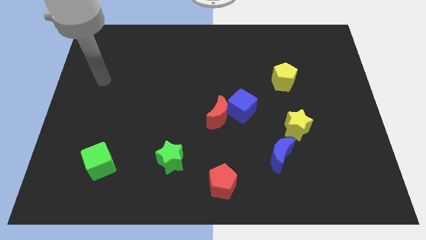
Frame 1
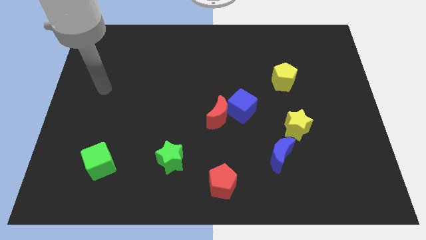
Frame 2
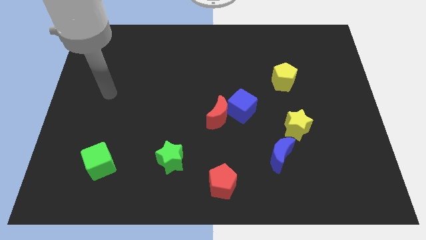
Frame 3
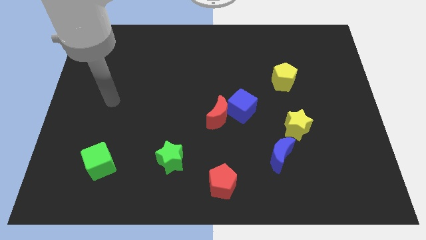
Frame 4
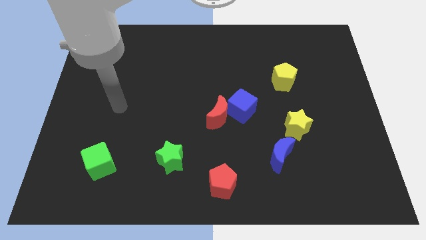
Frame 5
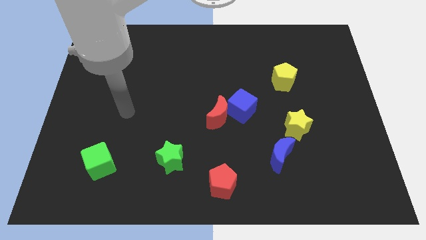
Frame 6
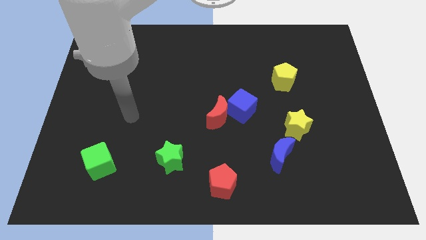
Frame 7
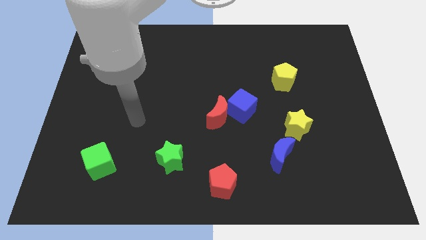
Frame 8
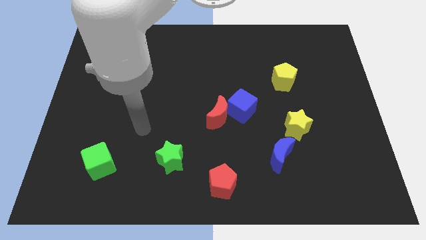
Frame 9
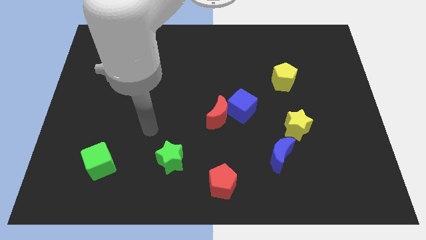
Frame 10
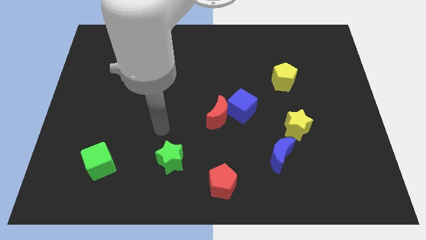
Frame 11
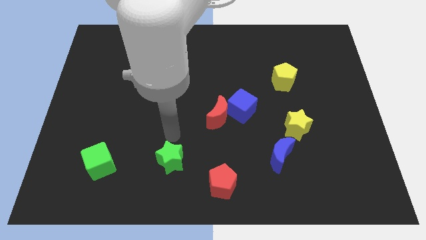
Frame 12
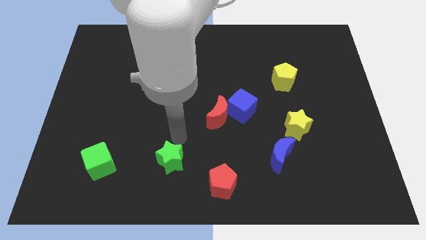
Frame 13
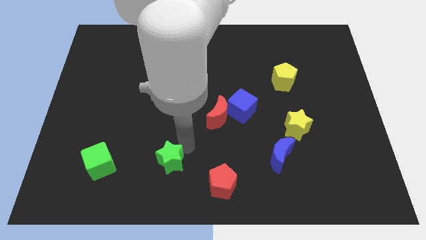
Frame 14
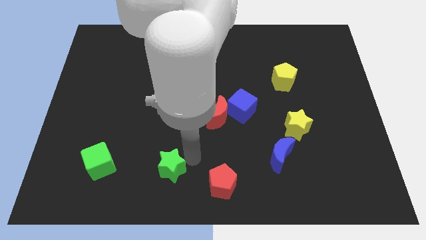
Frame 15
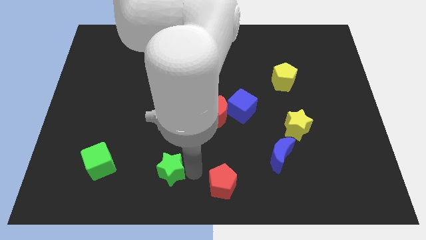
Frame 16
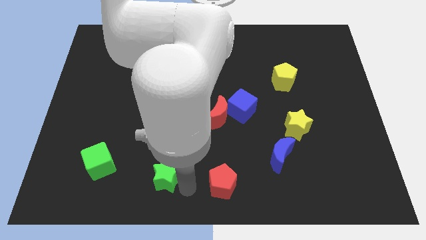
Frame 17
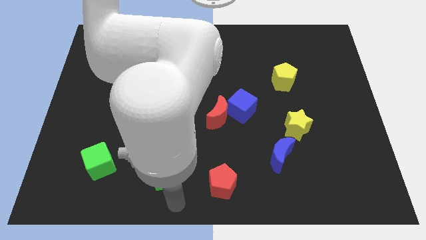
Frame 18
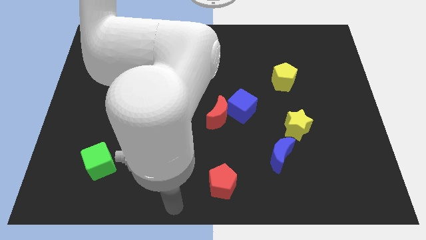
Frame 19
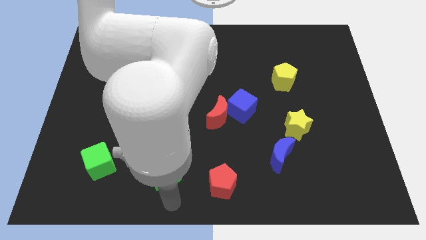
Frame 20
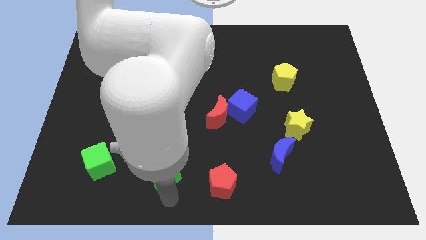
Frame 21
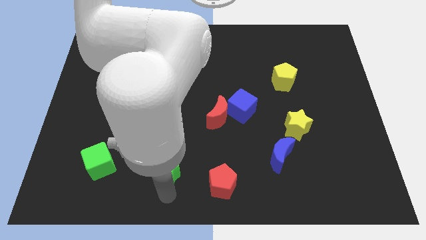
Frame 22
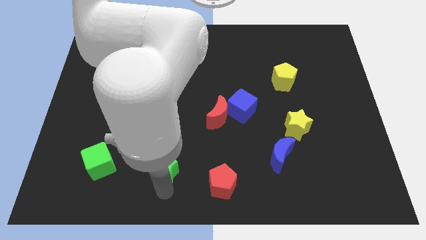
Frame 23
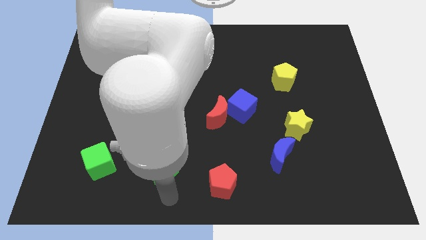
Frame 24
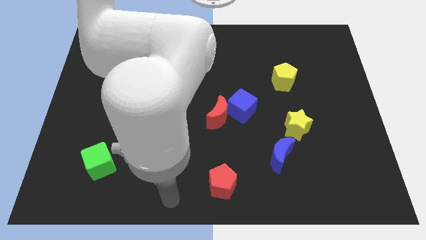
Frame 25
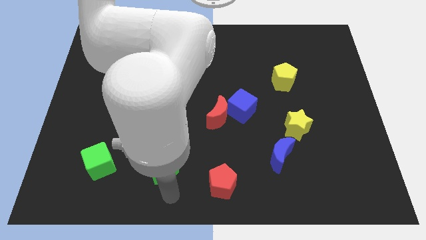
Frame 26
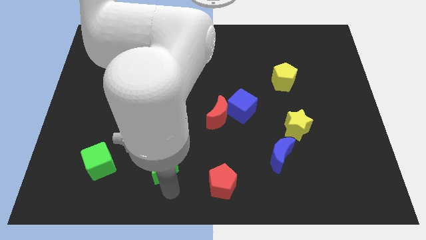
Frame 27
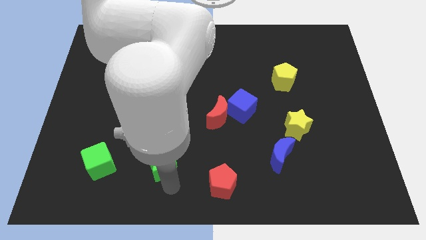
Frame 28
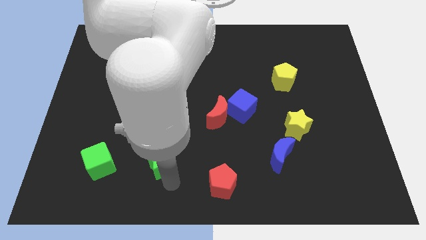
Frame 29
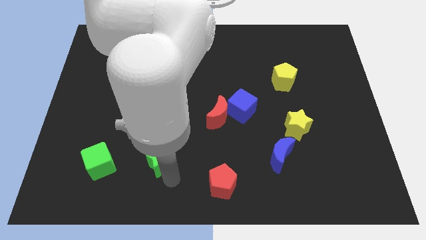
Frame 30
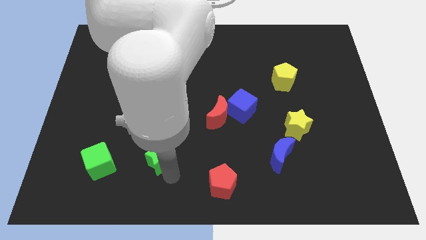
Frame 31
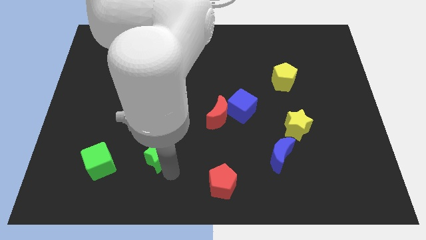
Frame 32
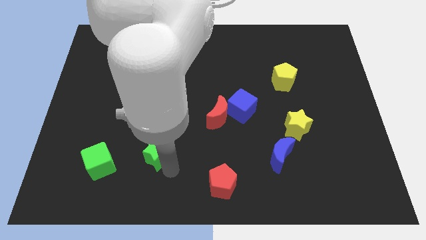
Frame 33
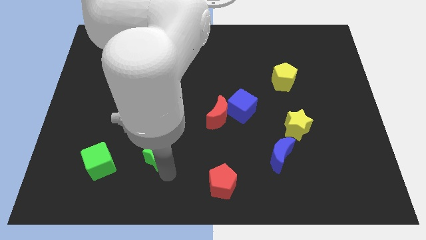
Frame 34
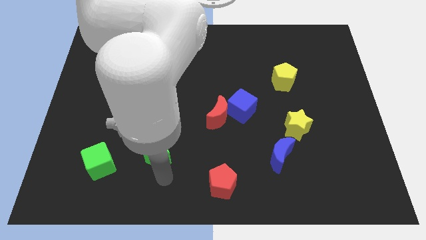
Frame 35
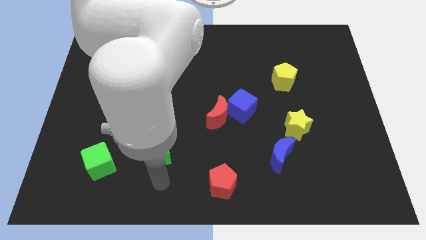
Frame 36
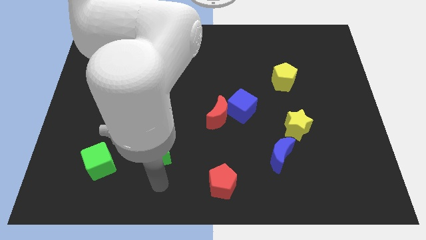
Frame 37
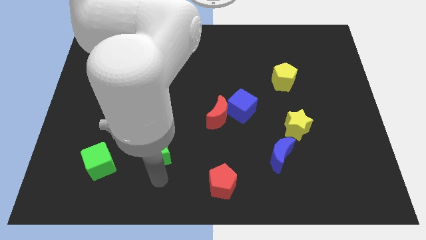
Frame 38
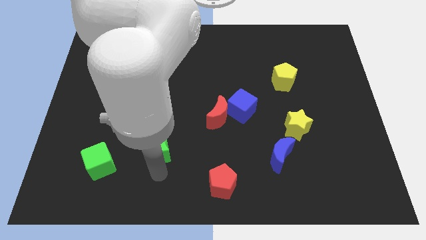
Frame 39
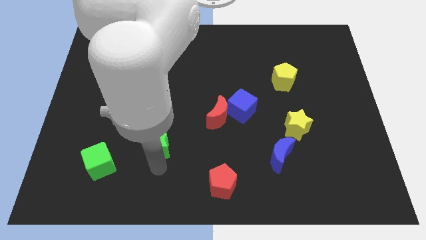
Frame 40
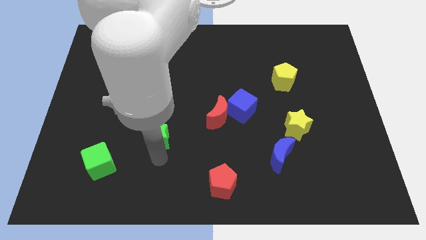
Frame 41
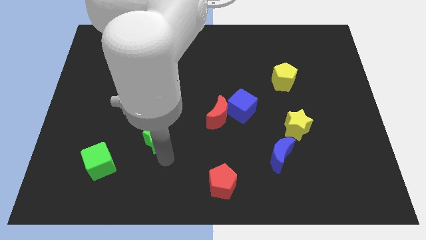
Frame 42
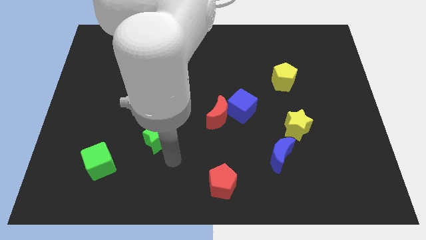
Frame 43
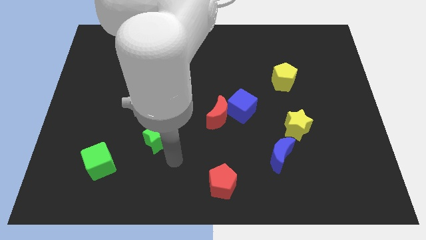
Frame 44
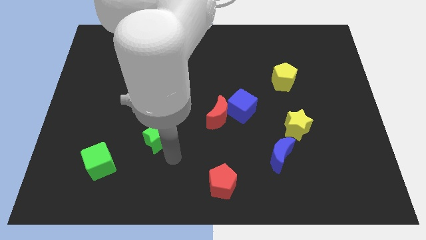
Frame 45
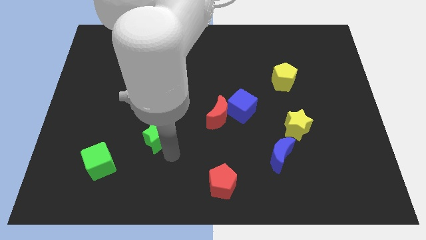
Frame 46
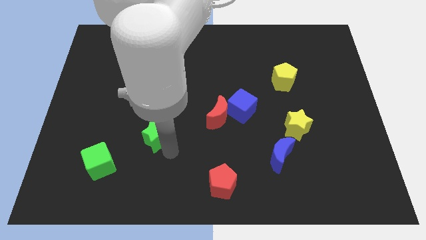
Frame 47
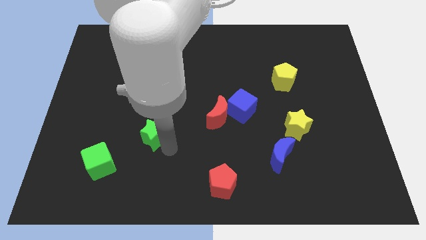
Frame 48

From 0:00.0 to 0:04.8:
move the green star somewhat up and to the left diagonally

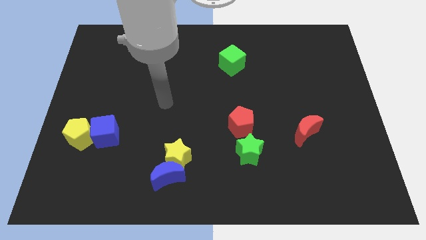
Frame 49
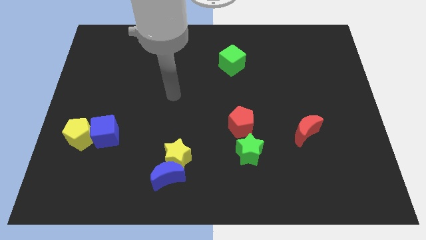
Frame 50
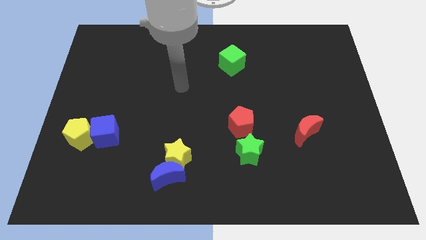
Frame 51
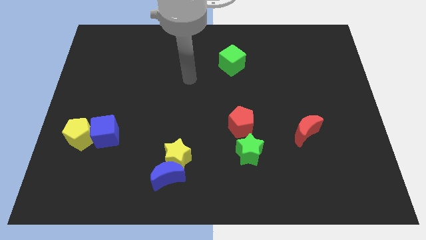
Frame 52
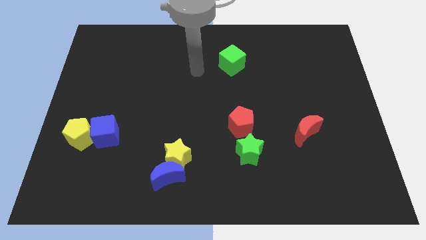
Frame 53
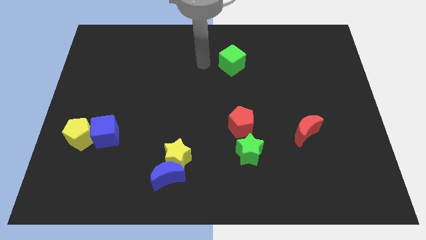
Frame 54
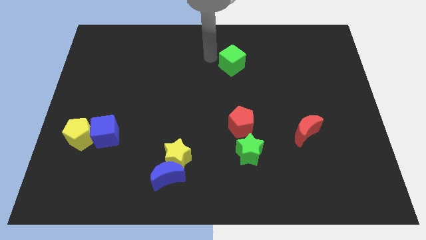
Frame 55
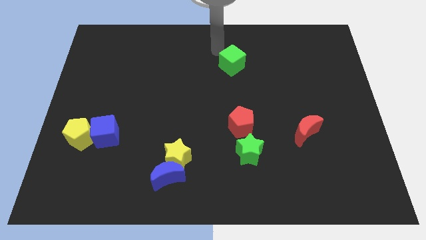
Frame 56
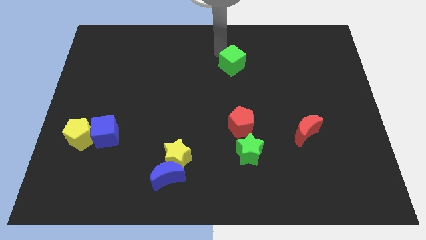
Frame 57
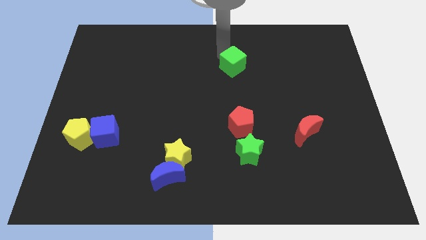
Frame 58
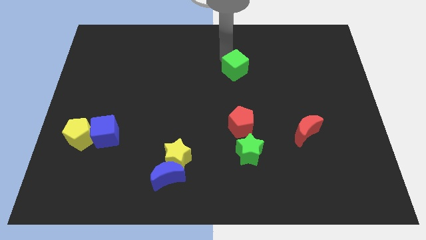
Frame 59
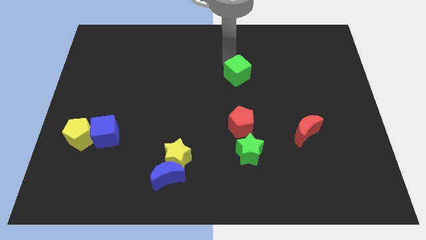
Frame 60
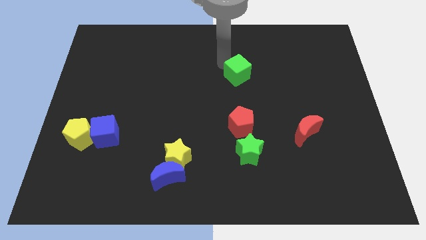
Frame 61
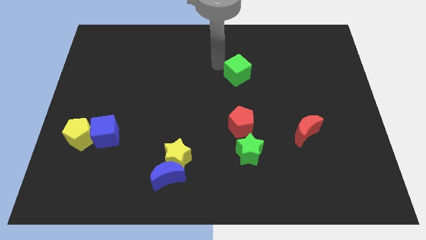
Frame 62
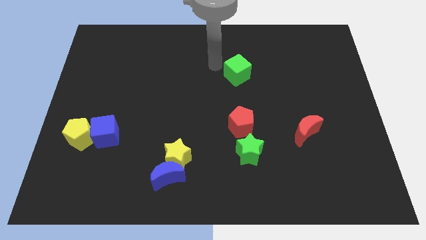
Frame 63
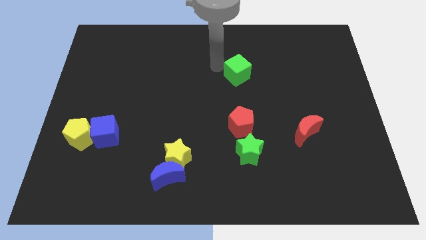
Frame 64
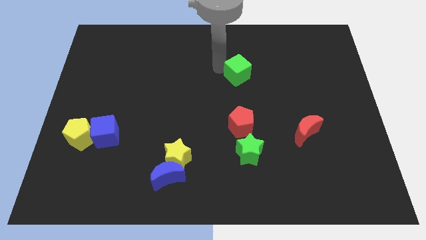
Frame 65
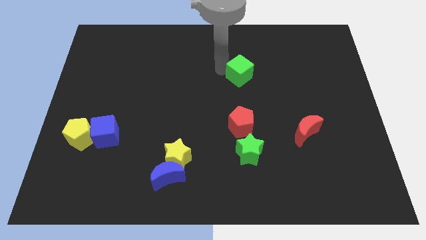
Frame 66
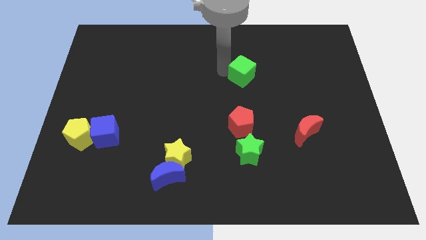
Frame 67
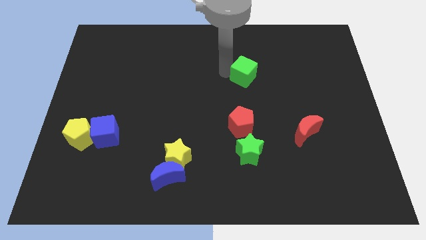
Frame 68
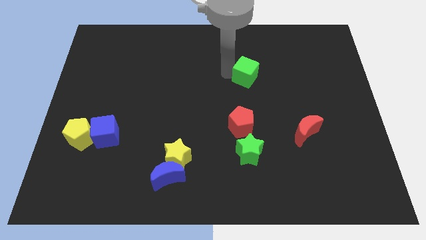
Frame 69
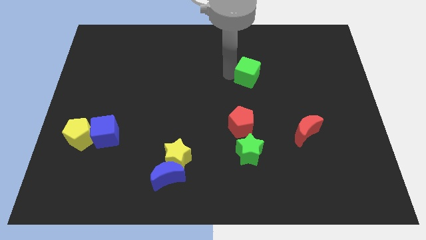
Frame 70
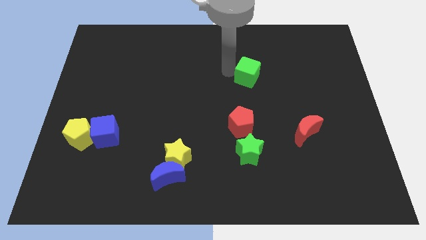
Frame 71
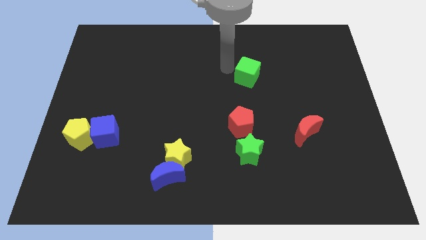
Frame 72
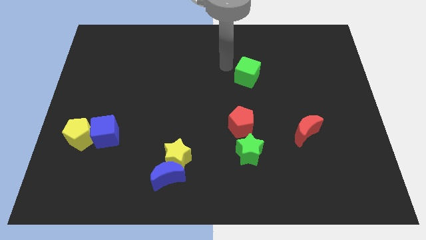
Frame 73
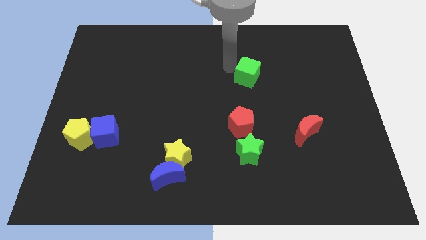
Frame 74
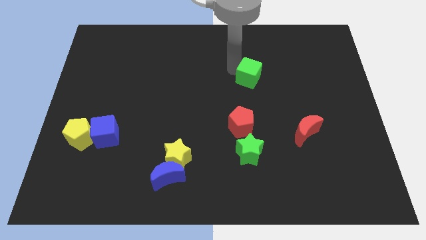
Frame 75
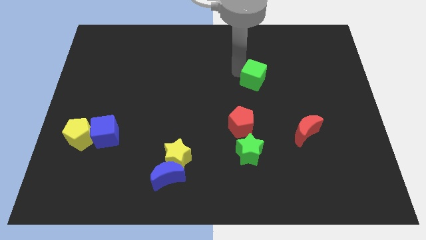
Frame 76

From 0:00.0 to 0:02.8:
move the green cube somewhat downwards and to the right diagonally

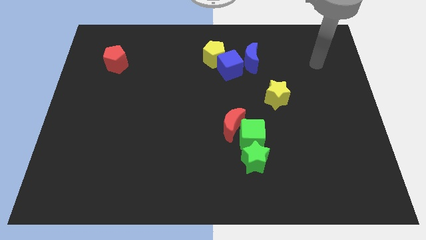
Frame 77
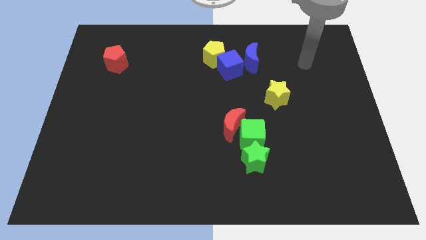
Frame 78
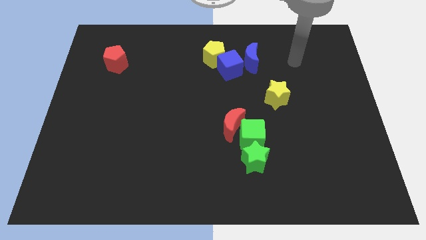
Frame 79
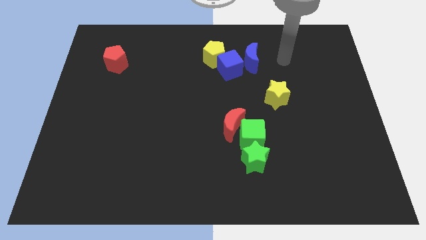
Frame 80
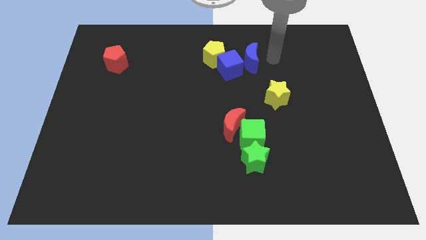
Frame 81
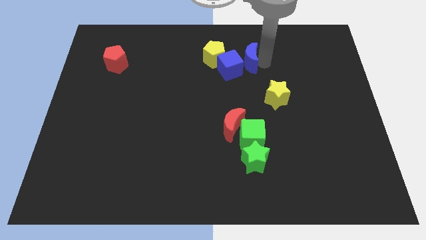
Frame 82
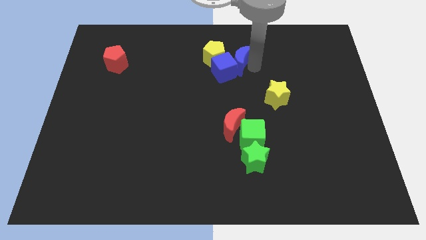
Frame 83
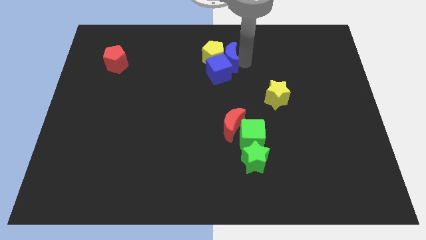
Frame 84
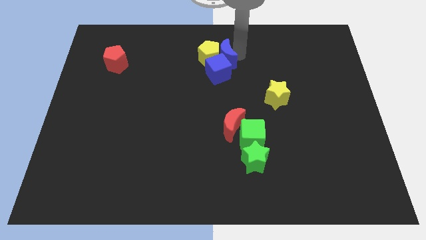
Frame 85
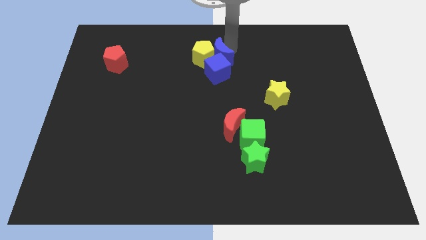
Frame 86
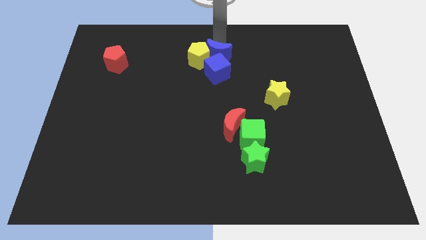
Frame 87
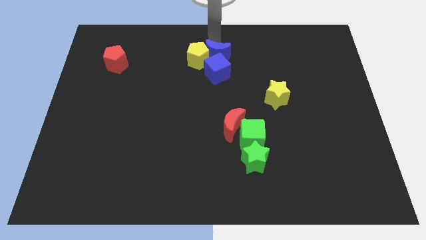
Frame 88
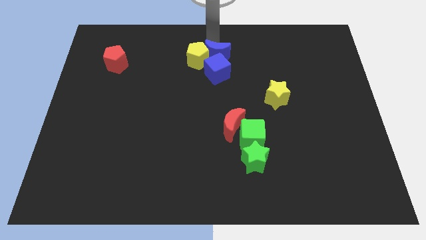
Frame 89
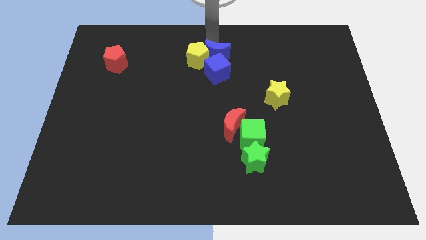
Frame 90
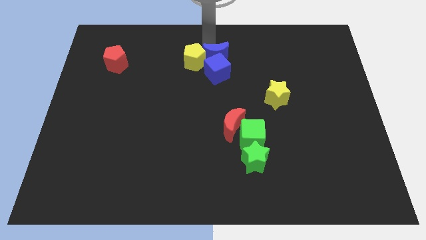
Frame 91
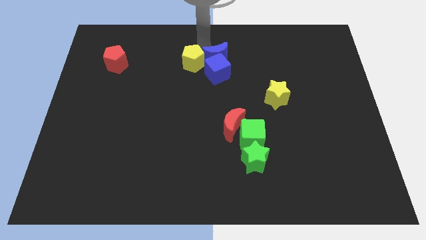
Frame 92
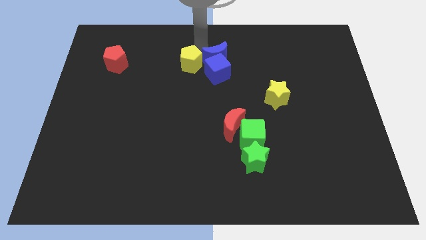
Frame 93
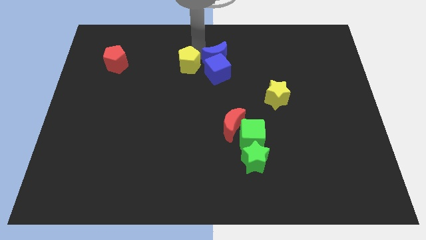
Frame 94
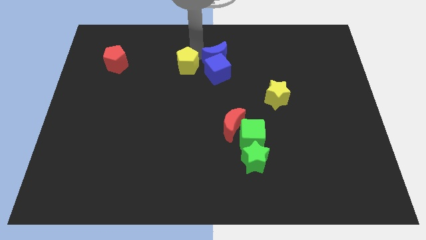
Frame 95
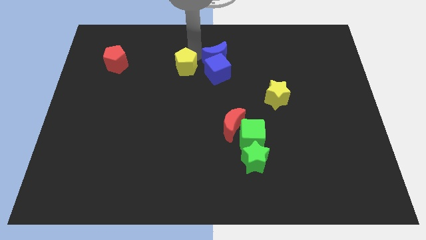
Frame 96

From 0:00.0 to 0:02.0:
push the yellow pentagon a little bit downwards and left diagonally
